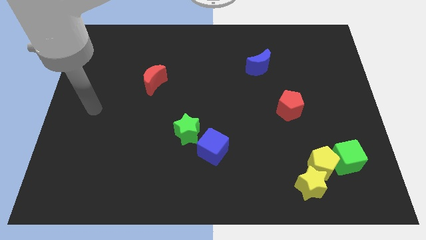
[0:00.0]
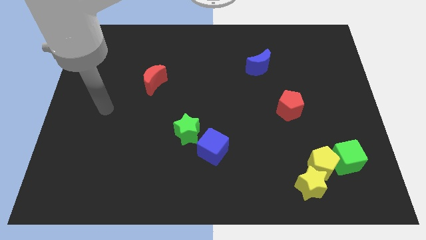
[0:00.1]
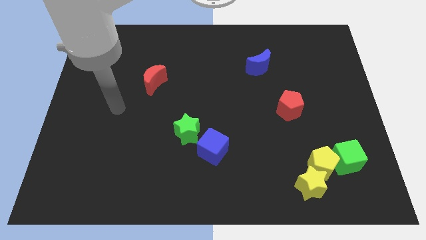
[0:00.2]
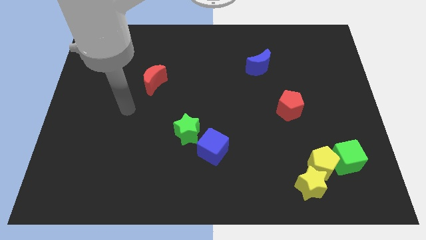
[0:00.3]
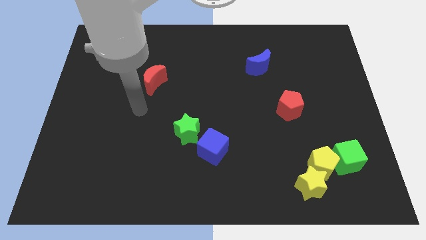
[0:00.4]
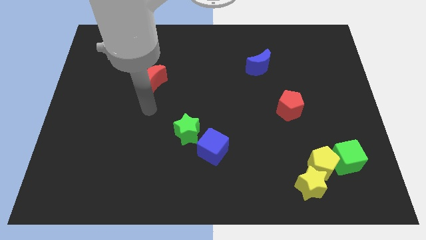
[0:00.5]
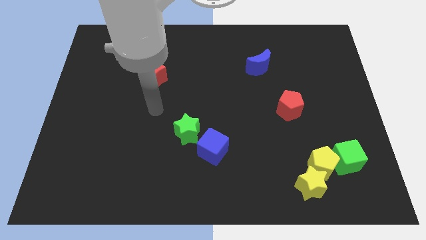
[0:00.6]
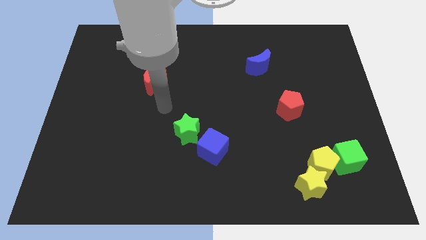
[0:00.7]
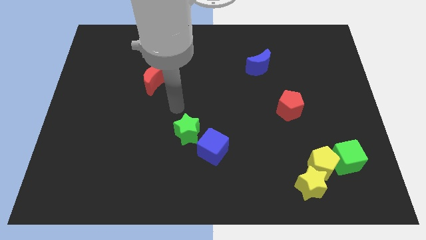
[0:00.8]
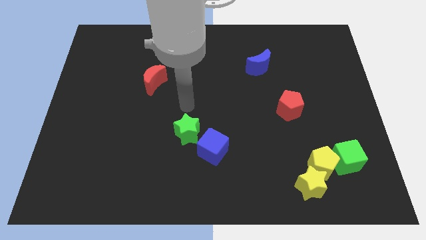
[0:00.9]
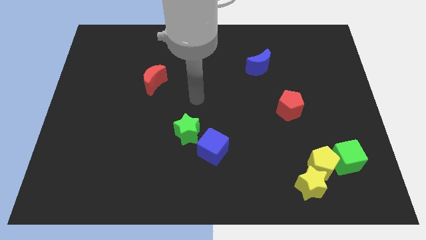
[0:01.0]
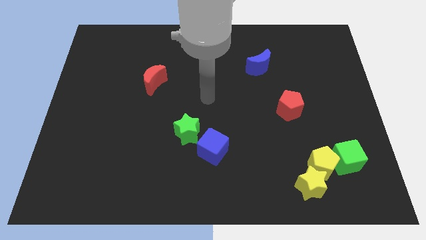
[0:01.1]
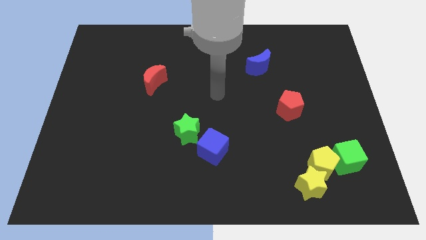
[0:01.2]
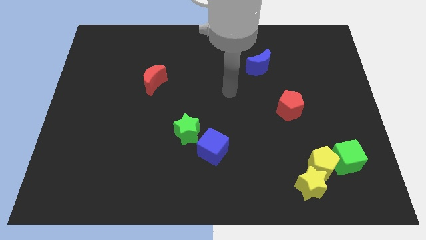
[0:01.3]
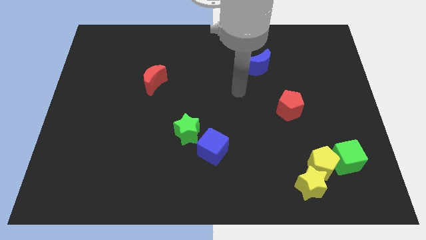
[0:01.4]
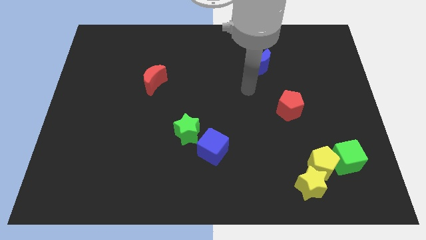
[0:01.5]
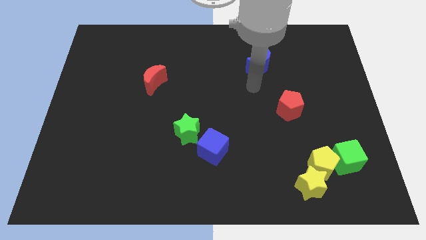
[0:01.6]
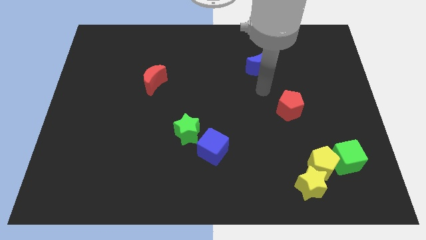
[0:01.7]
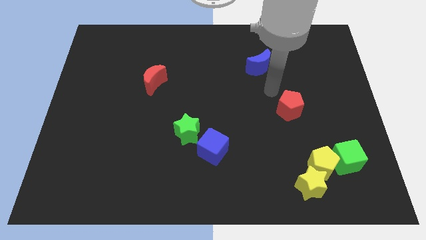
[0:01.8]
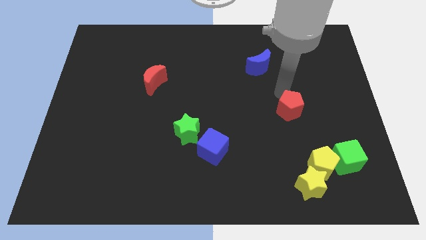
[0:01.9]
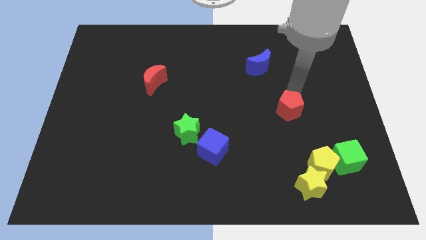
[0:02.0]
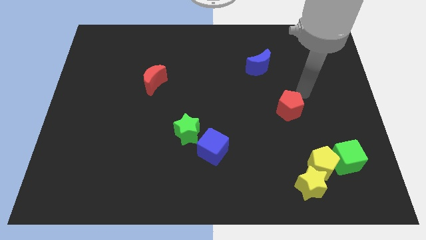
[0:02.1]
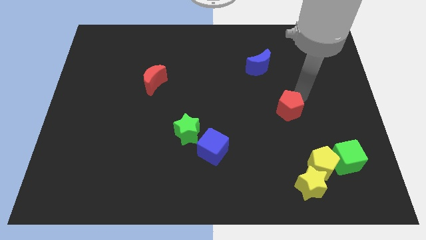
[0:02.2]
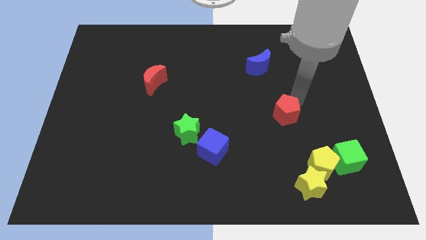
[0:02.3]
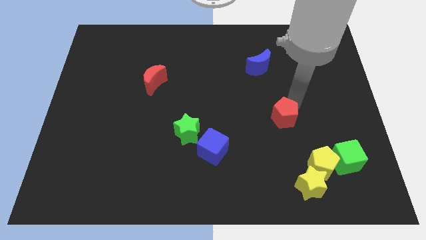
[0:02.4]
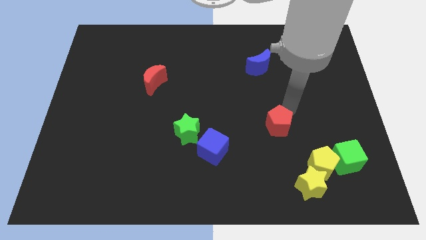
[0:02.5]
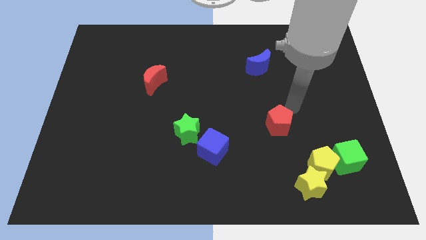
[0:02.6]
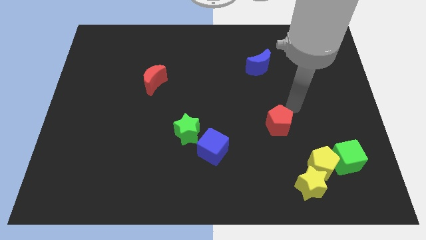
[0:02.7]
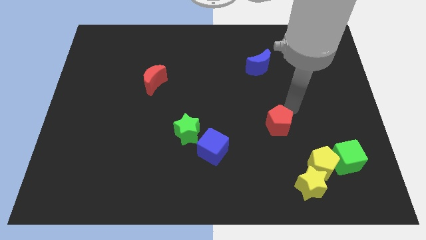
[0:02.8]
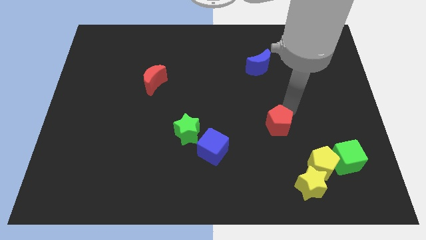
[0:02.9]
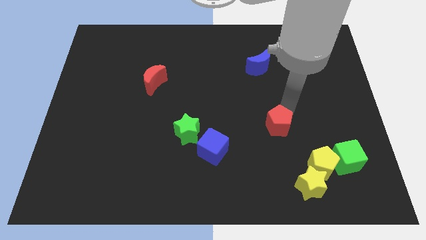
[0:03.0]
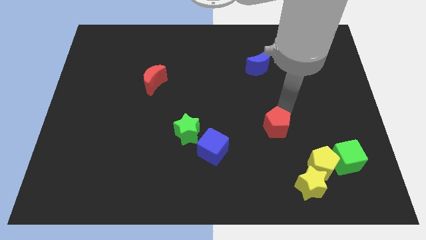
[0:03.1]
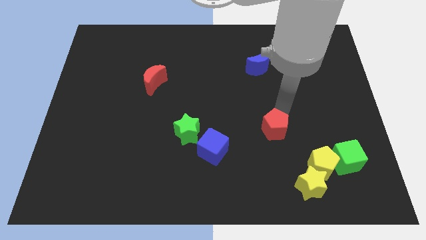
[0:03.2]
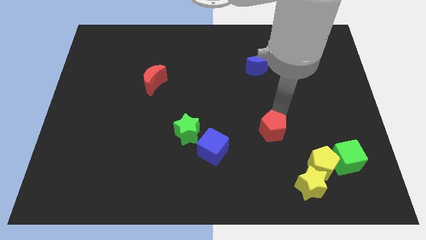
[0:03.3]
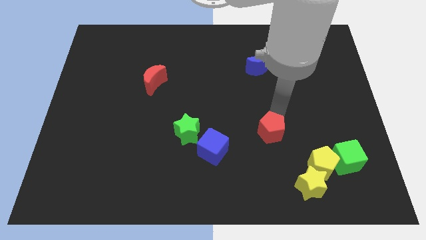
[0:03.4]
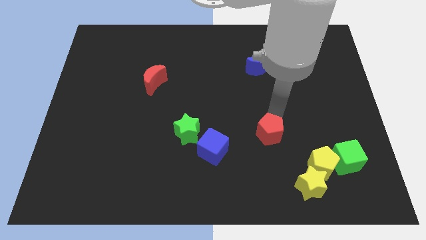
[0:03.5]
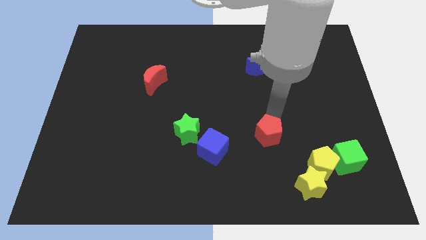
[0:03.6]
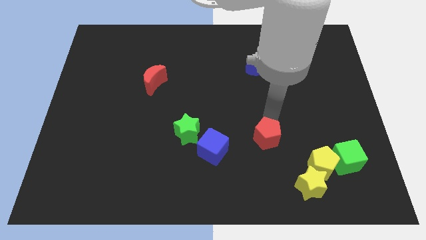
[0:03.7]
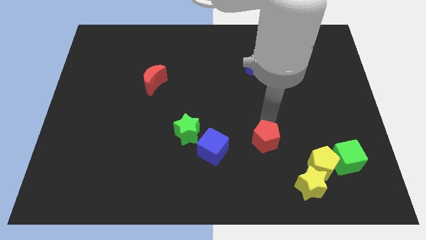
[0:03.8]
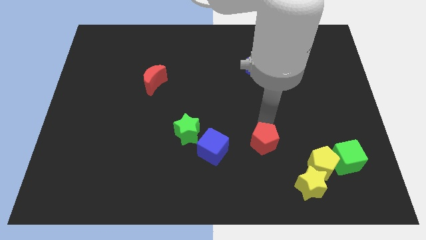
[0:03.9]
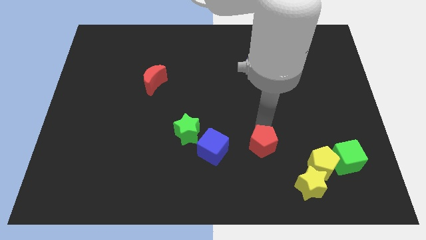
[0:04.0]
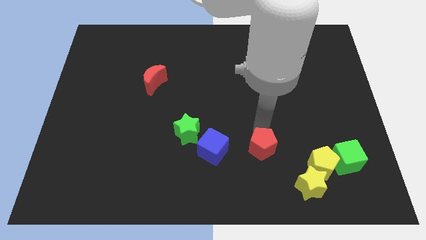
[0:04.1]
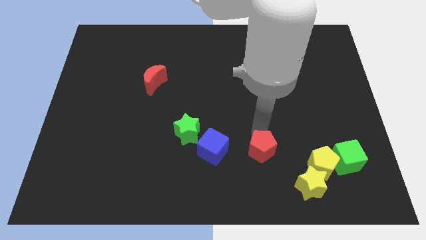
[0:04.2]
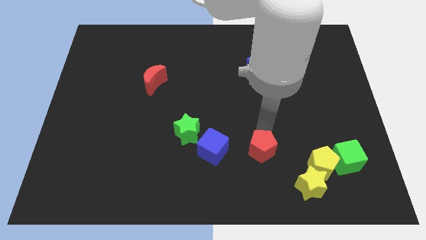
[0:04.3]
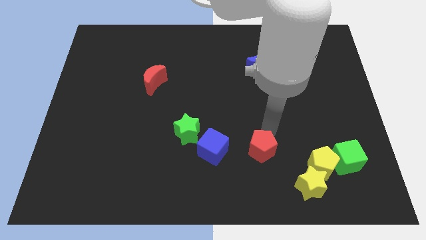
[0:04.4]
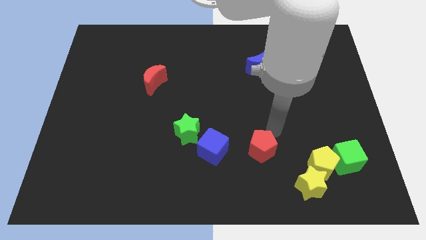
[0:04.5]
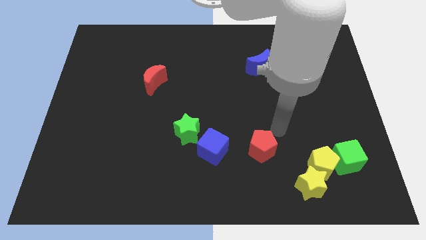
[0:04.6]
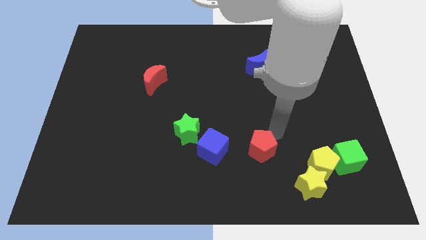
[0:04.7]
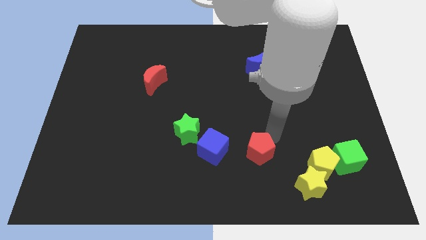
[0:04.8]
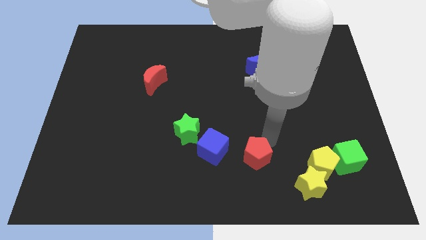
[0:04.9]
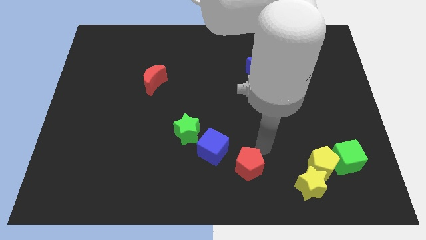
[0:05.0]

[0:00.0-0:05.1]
put the red pentagon to the bottom

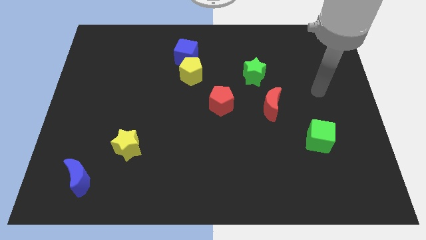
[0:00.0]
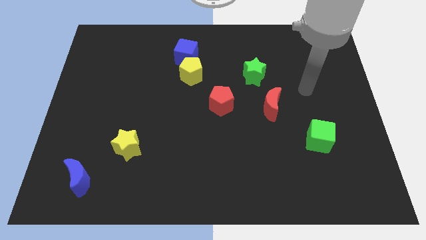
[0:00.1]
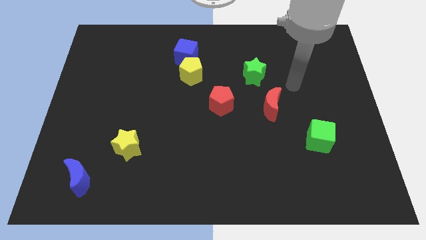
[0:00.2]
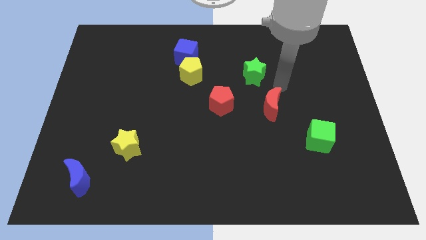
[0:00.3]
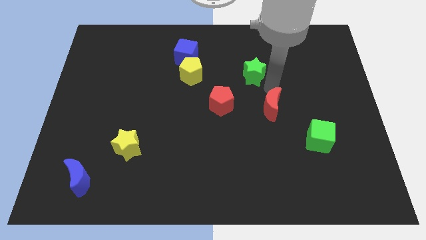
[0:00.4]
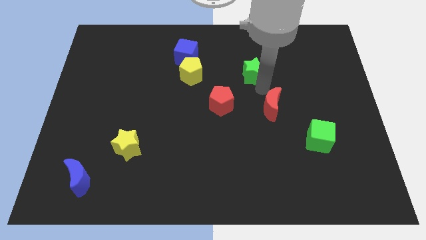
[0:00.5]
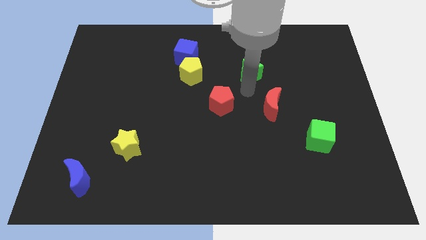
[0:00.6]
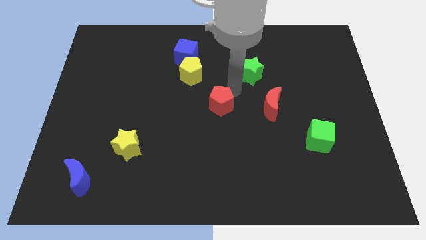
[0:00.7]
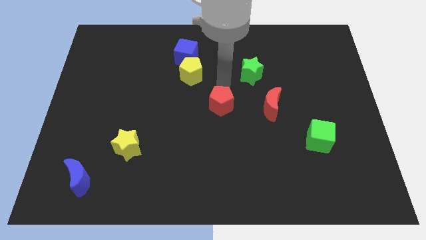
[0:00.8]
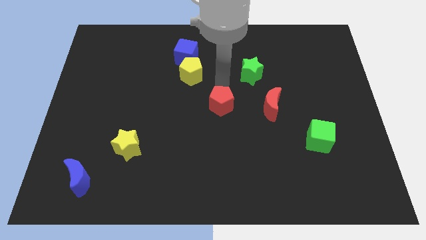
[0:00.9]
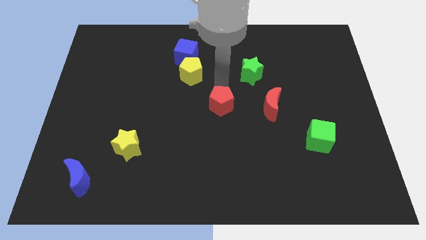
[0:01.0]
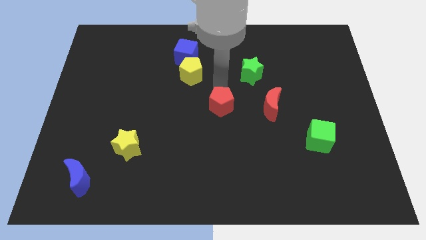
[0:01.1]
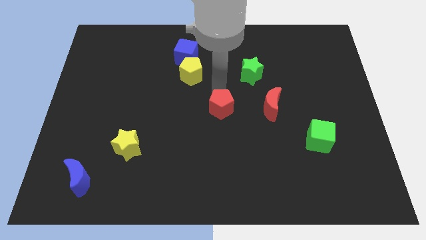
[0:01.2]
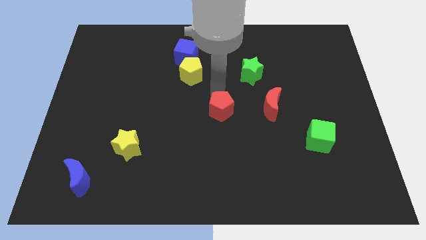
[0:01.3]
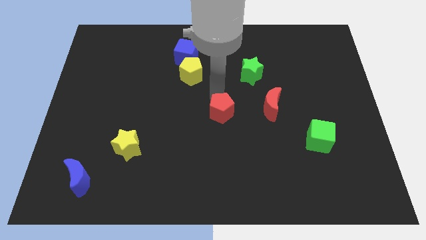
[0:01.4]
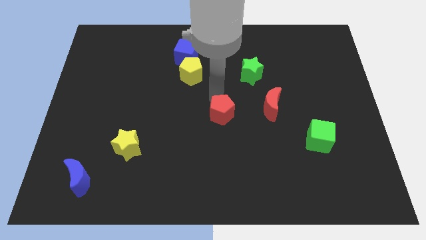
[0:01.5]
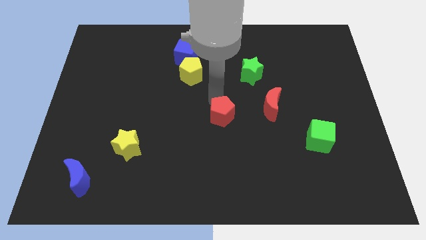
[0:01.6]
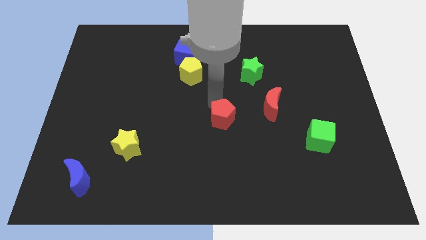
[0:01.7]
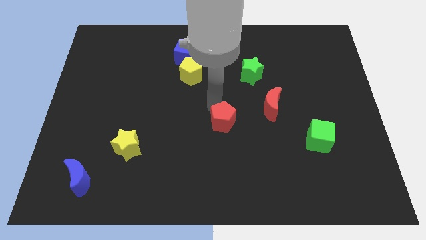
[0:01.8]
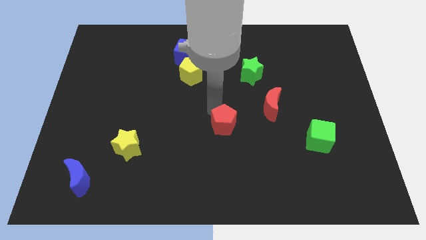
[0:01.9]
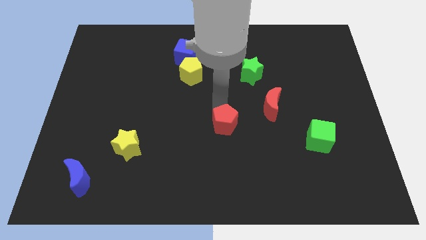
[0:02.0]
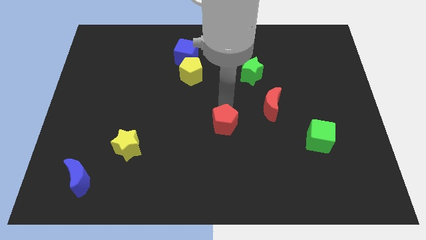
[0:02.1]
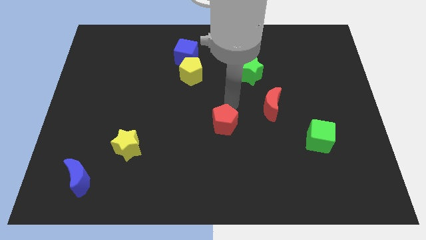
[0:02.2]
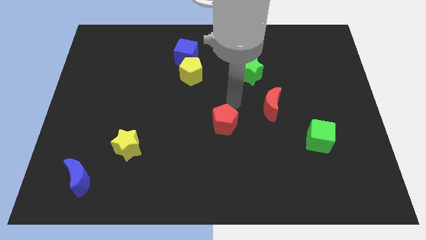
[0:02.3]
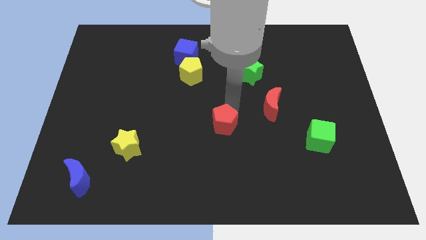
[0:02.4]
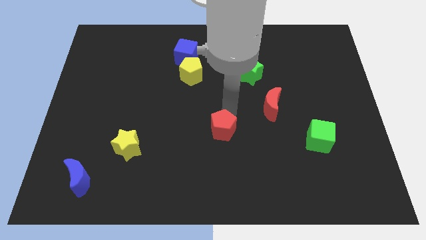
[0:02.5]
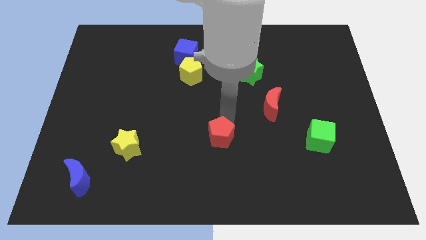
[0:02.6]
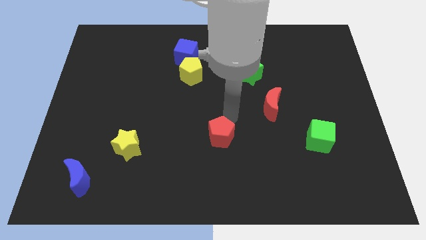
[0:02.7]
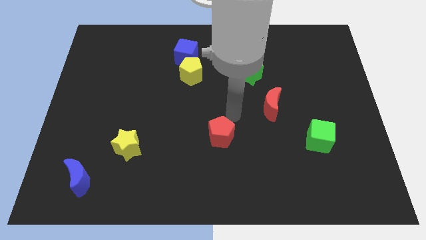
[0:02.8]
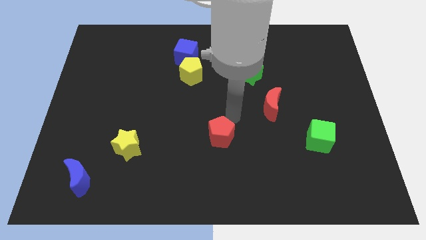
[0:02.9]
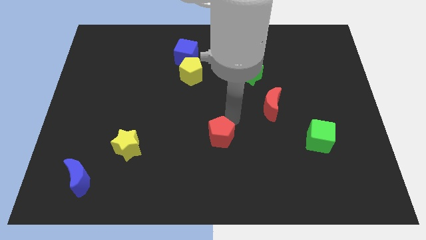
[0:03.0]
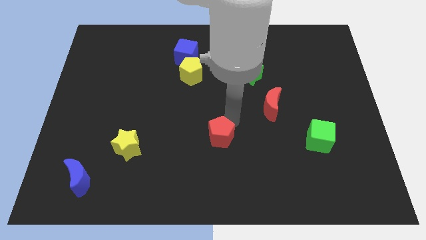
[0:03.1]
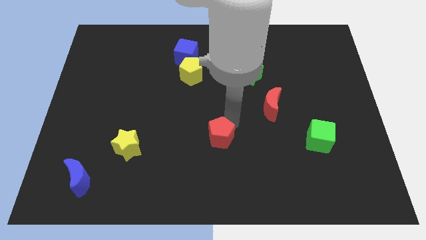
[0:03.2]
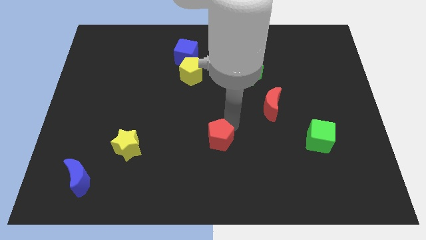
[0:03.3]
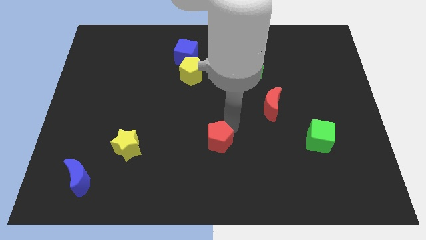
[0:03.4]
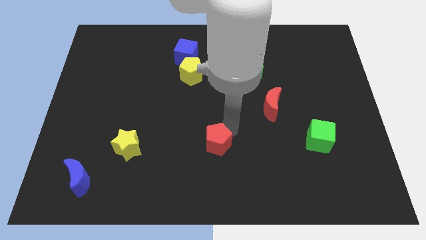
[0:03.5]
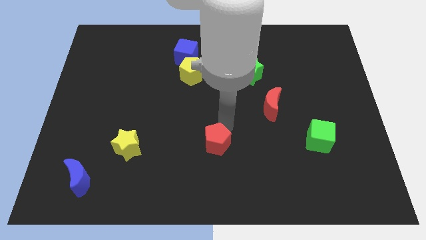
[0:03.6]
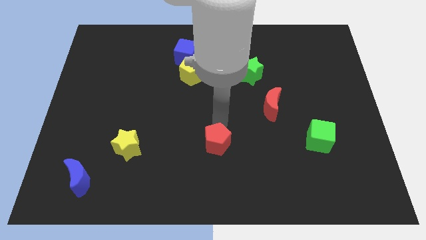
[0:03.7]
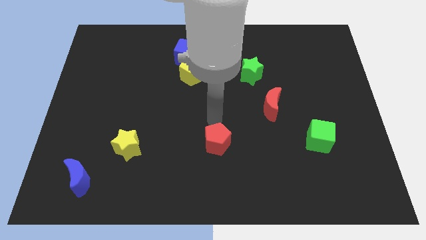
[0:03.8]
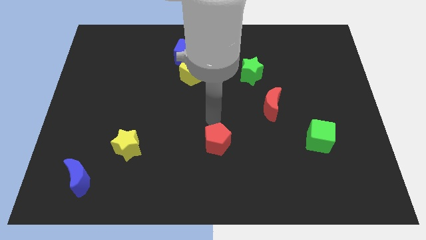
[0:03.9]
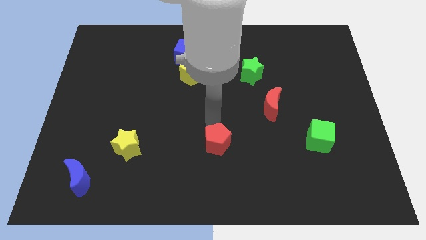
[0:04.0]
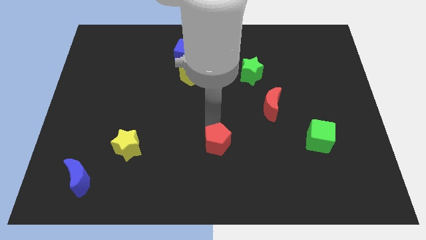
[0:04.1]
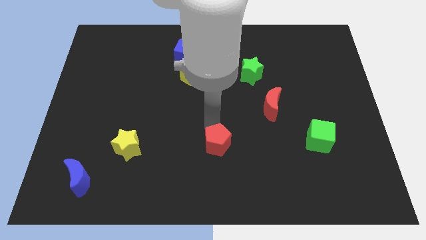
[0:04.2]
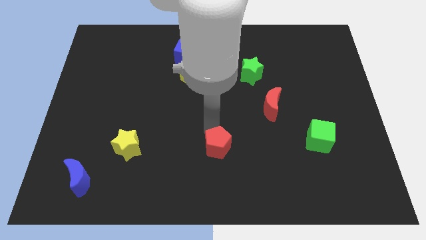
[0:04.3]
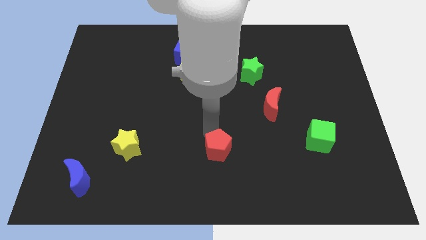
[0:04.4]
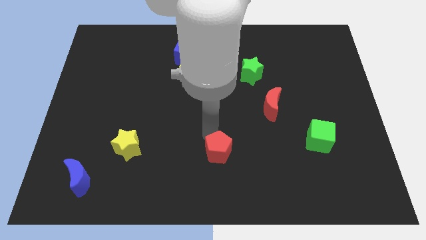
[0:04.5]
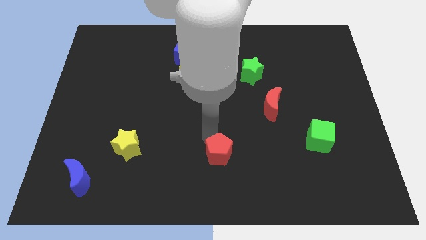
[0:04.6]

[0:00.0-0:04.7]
push the red pentagon to the bottom side
